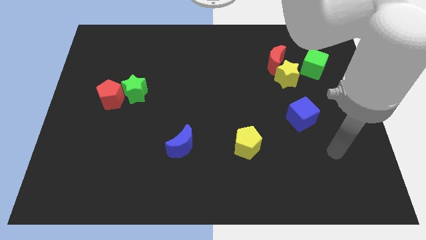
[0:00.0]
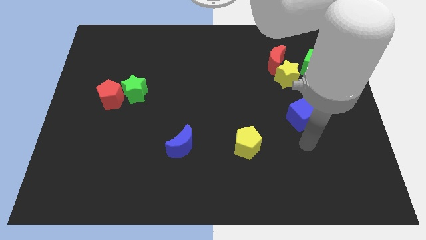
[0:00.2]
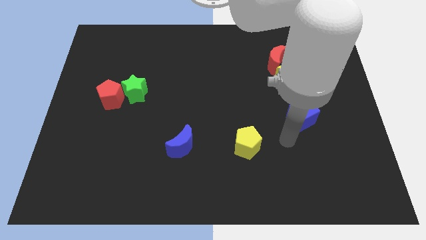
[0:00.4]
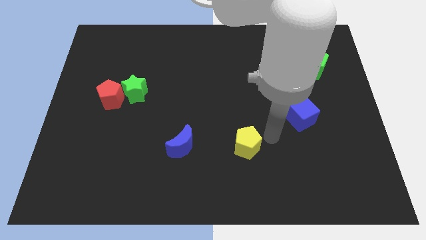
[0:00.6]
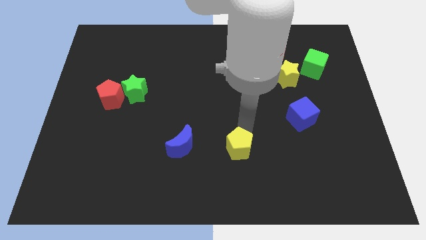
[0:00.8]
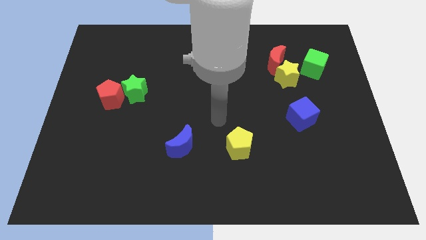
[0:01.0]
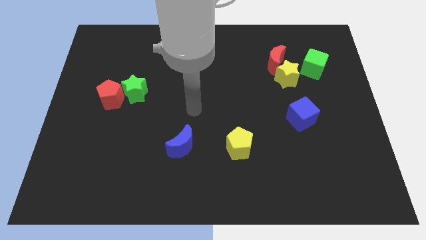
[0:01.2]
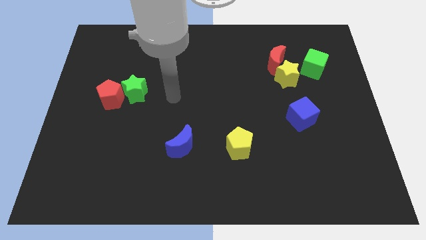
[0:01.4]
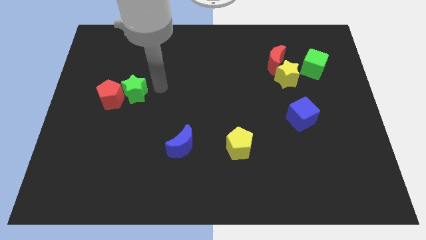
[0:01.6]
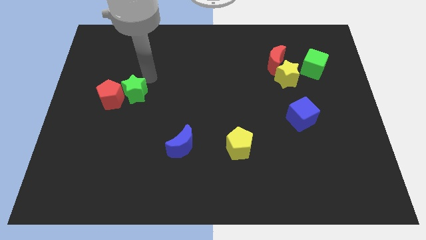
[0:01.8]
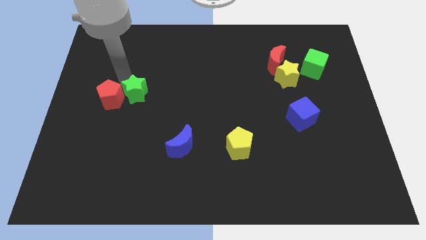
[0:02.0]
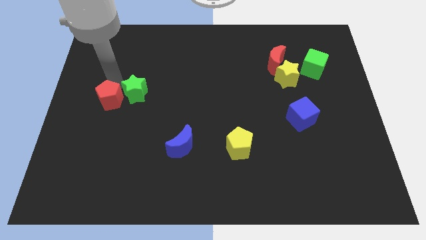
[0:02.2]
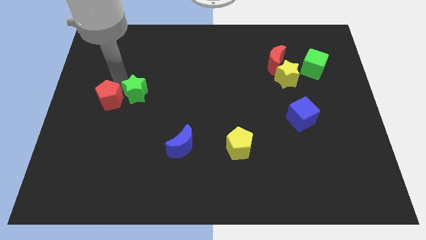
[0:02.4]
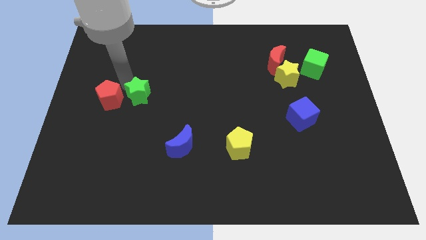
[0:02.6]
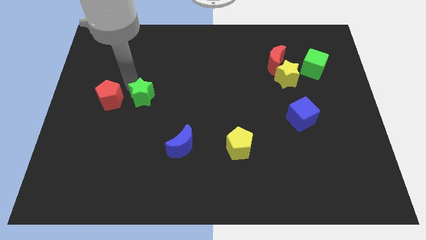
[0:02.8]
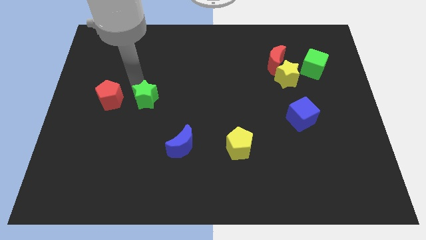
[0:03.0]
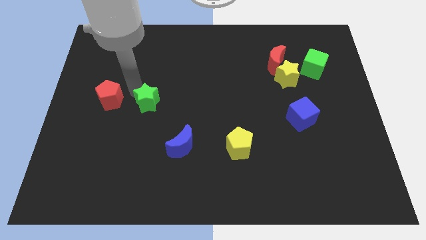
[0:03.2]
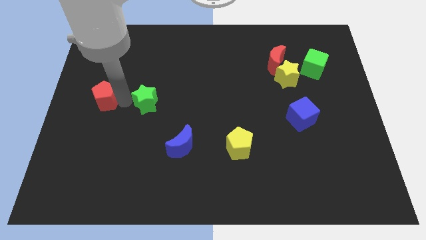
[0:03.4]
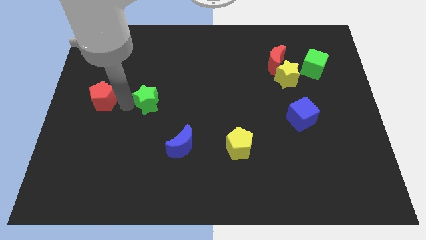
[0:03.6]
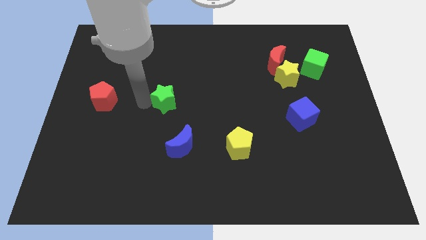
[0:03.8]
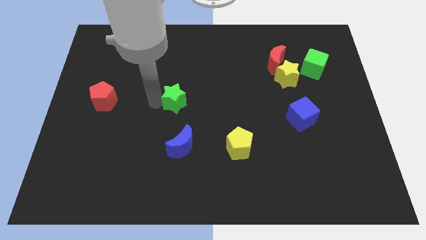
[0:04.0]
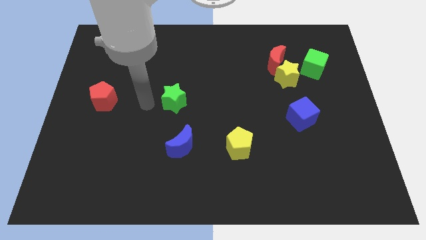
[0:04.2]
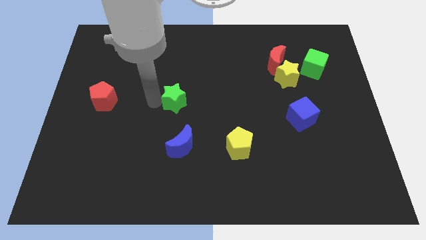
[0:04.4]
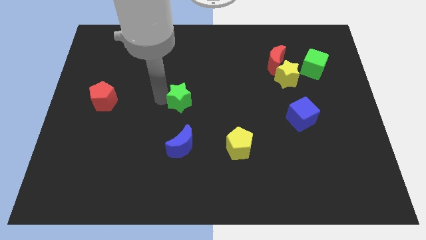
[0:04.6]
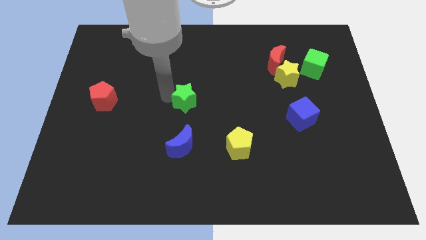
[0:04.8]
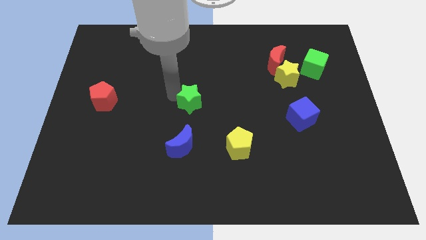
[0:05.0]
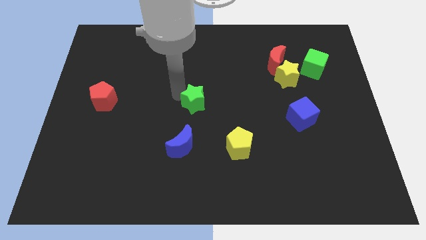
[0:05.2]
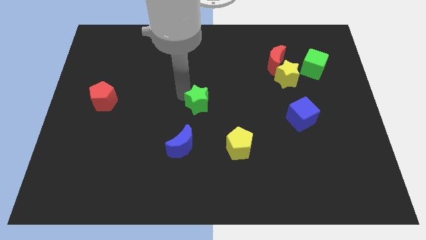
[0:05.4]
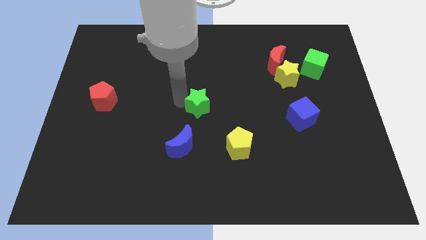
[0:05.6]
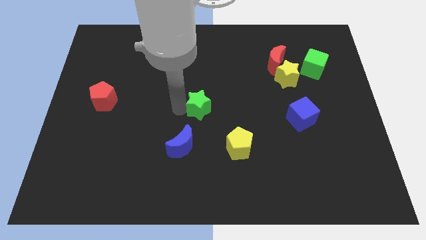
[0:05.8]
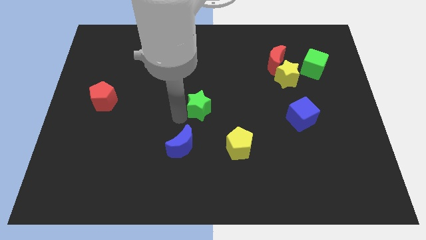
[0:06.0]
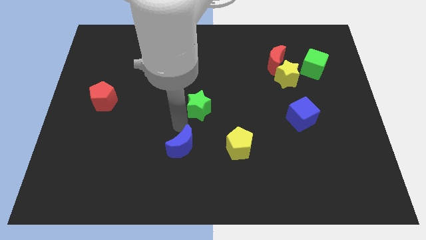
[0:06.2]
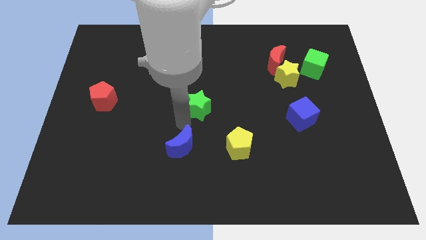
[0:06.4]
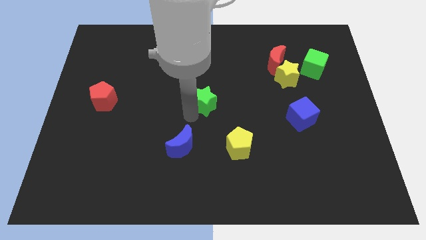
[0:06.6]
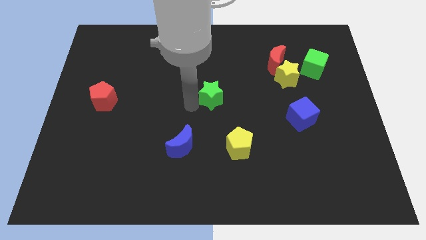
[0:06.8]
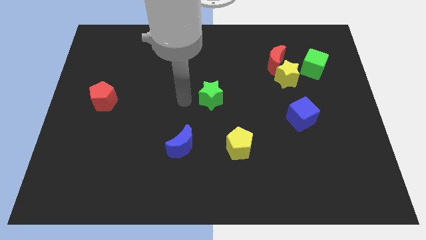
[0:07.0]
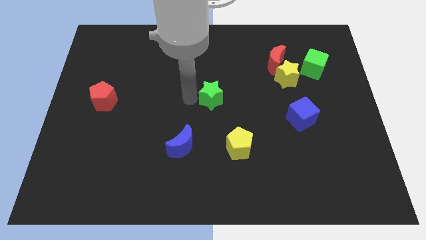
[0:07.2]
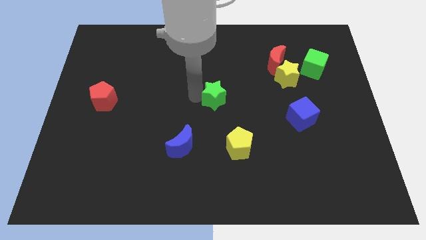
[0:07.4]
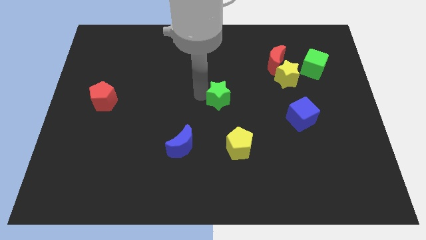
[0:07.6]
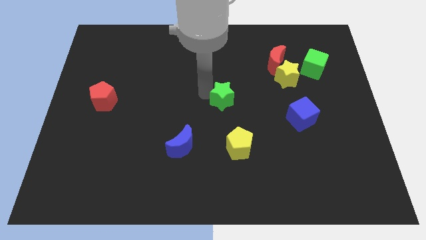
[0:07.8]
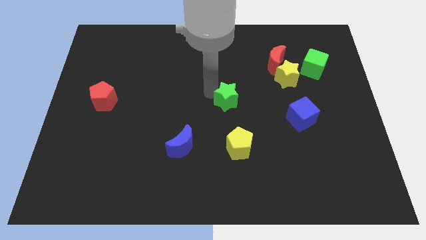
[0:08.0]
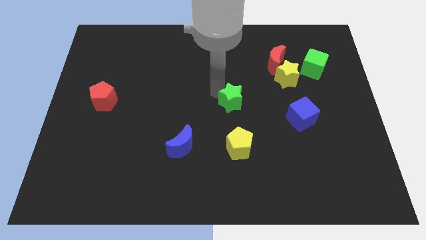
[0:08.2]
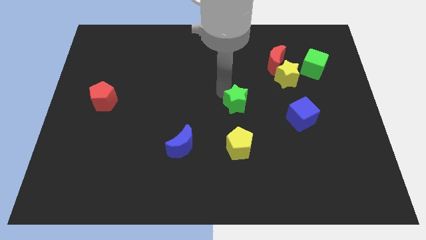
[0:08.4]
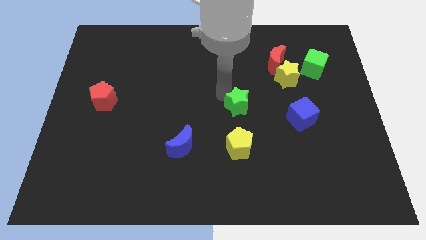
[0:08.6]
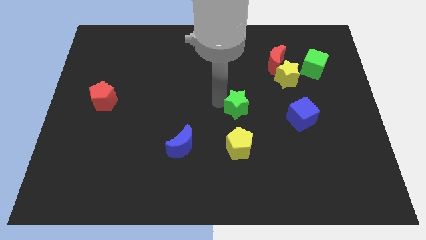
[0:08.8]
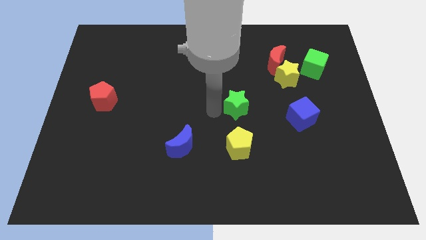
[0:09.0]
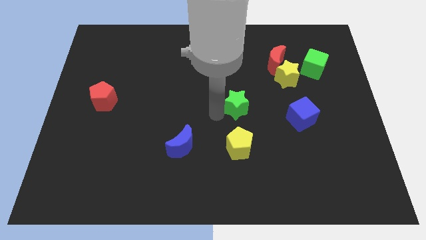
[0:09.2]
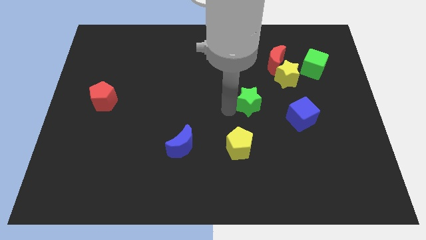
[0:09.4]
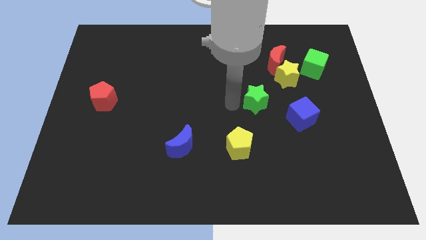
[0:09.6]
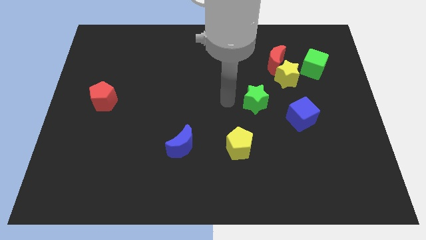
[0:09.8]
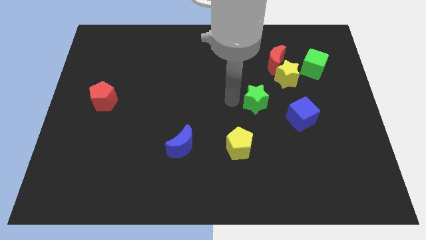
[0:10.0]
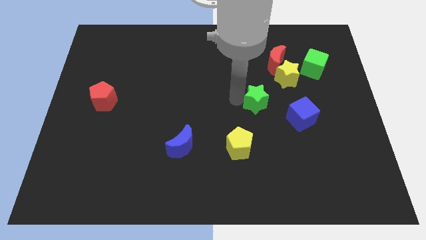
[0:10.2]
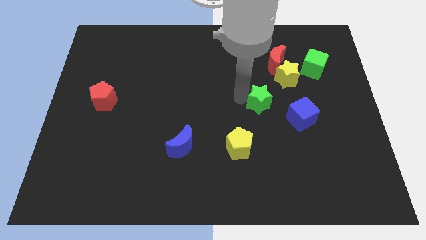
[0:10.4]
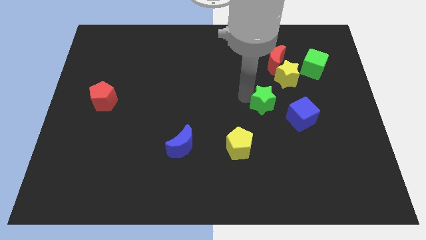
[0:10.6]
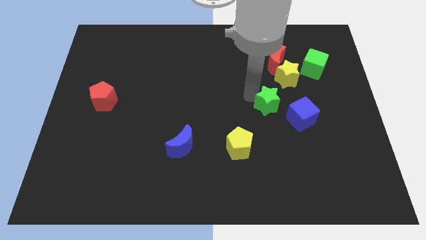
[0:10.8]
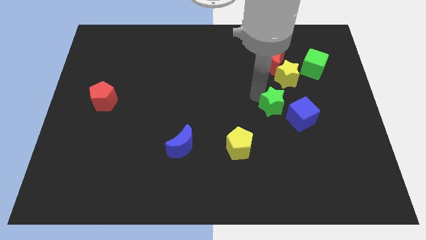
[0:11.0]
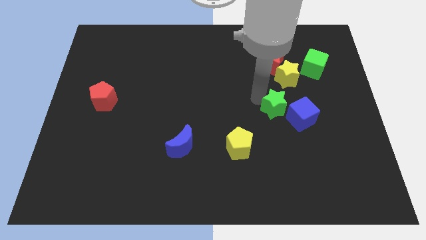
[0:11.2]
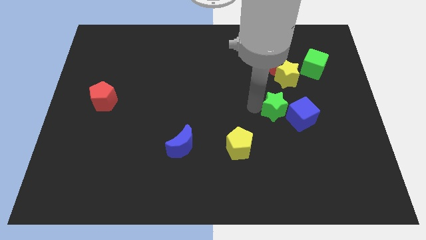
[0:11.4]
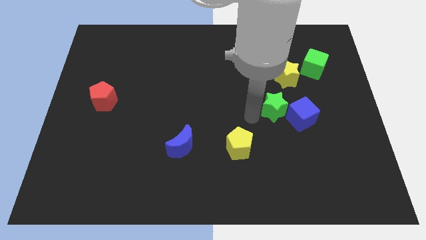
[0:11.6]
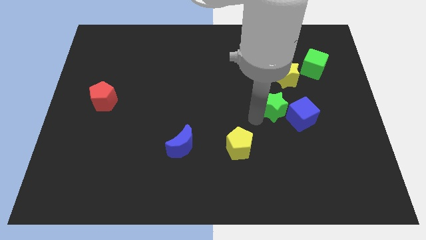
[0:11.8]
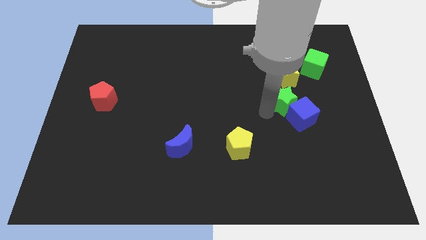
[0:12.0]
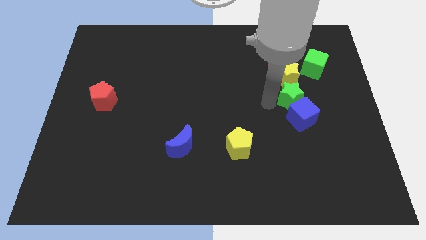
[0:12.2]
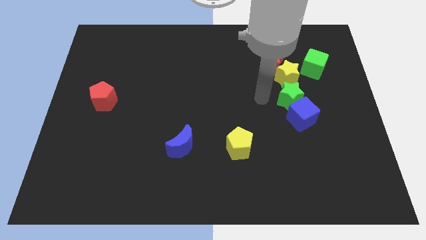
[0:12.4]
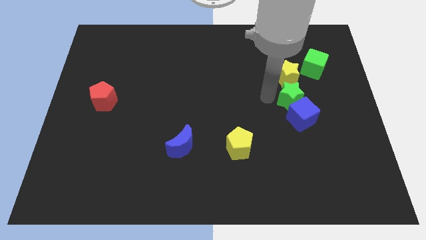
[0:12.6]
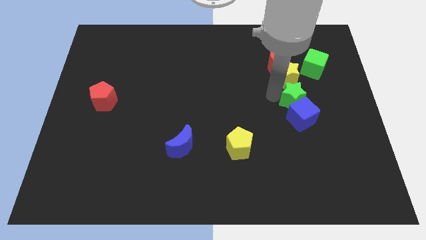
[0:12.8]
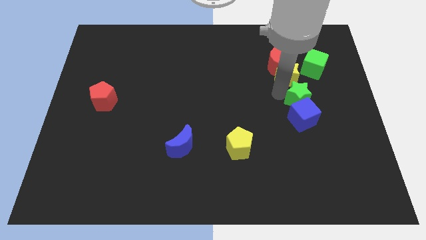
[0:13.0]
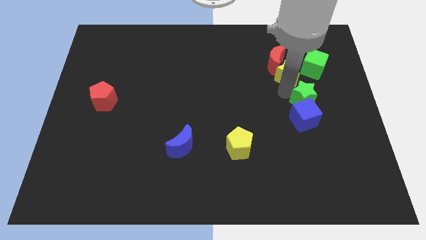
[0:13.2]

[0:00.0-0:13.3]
put the green star to the bottom side of the green cube
